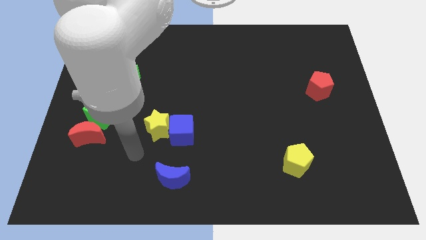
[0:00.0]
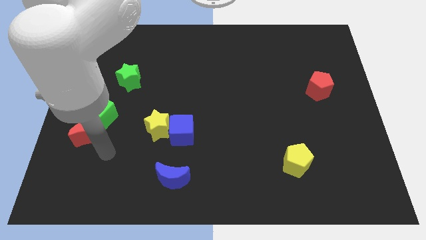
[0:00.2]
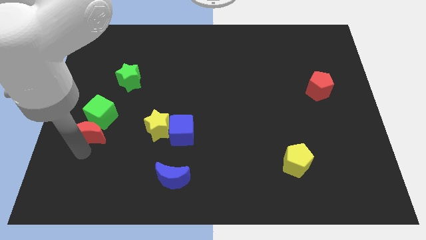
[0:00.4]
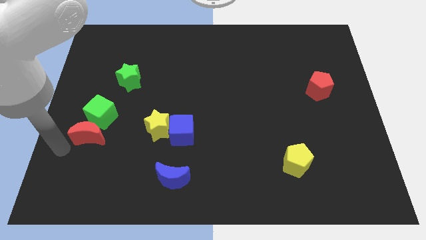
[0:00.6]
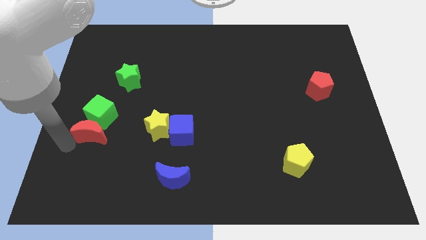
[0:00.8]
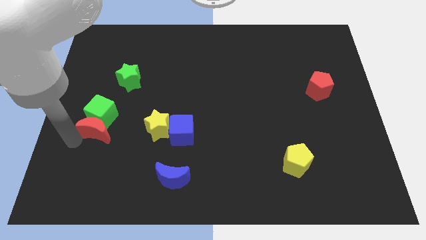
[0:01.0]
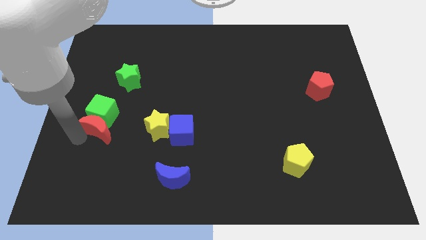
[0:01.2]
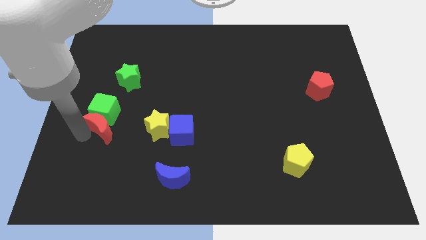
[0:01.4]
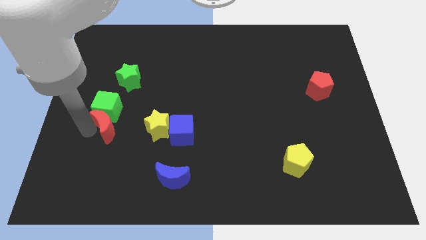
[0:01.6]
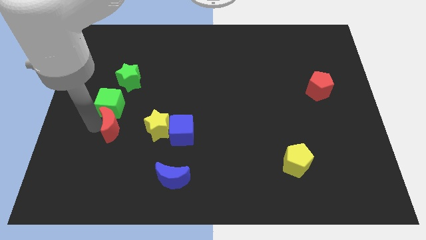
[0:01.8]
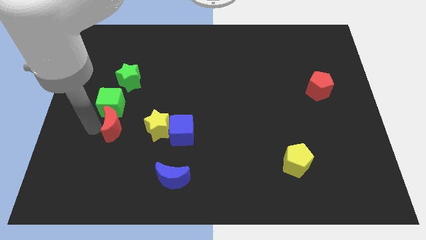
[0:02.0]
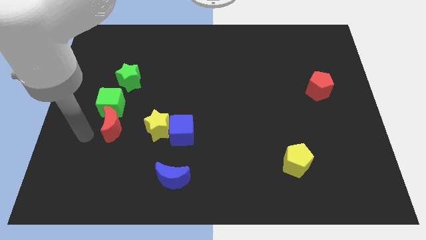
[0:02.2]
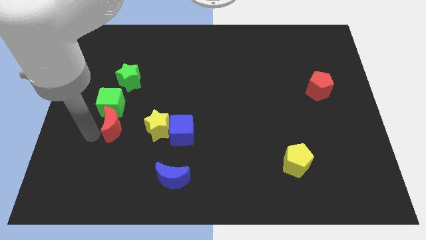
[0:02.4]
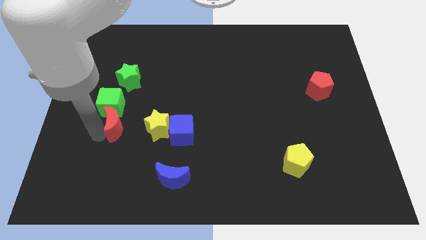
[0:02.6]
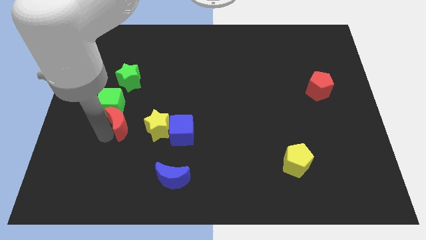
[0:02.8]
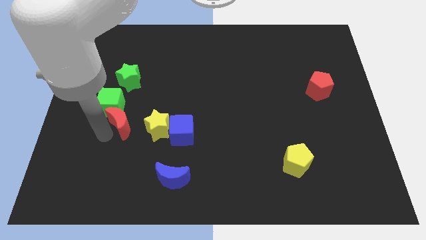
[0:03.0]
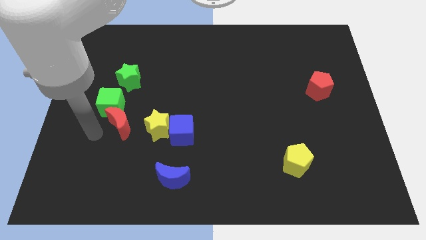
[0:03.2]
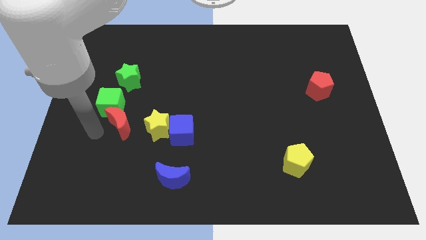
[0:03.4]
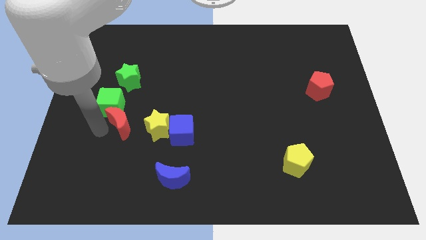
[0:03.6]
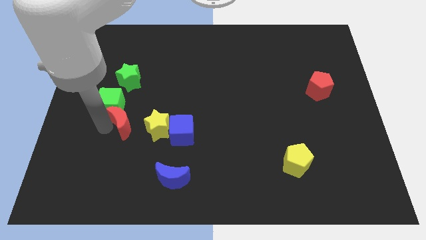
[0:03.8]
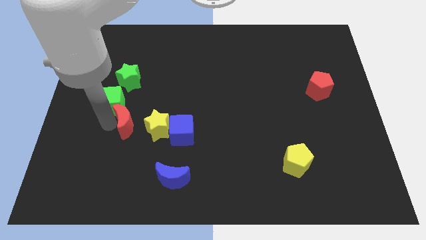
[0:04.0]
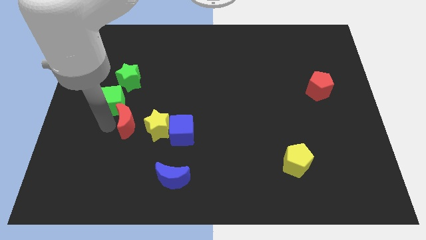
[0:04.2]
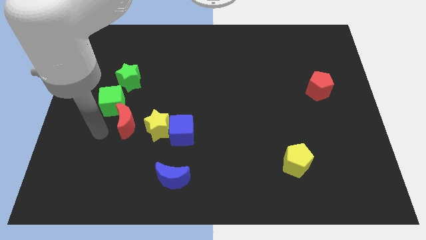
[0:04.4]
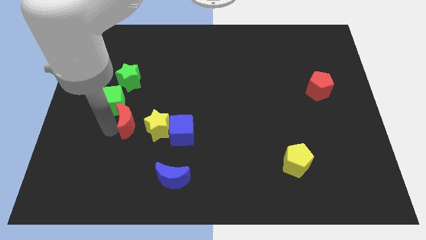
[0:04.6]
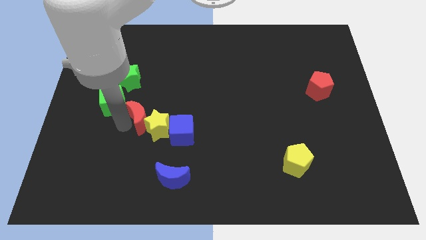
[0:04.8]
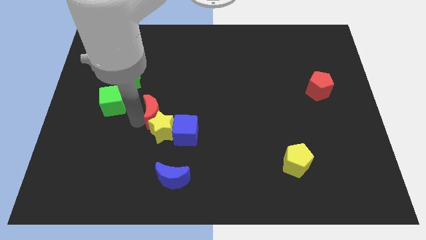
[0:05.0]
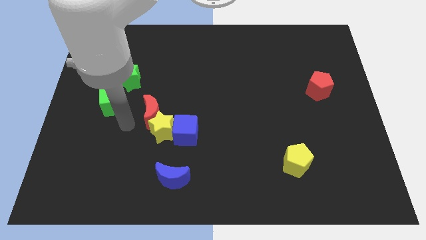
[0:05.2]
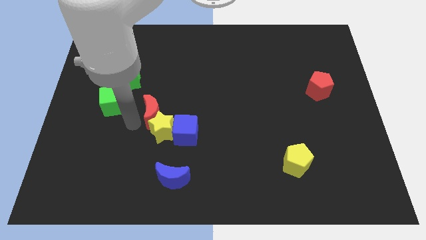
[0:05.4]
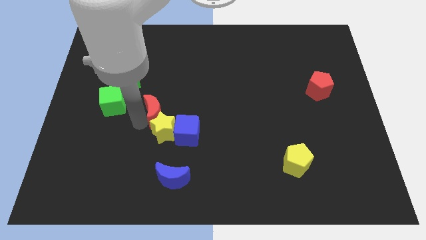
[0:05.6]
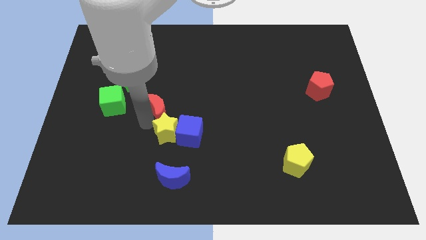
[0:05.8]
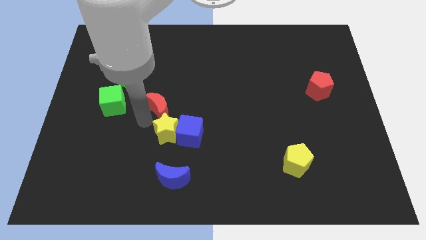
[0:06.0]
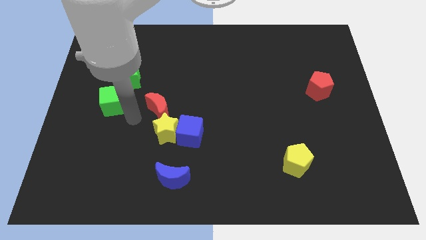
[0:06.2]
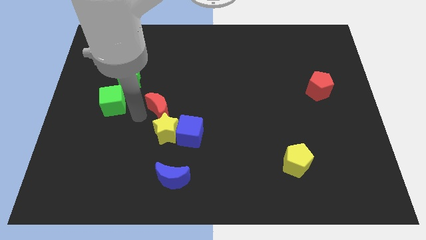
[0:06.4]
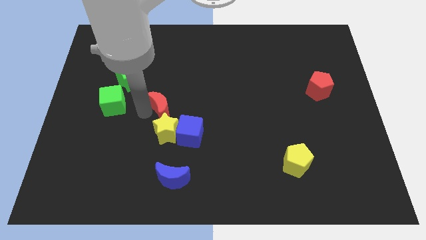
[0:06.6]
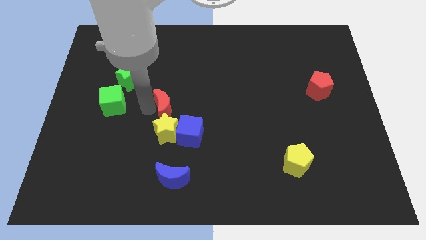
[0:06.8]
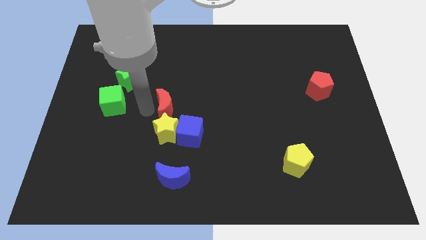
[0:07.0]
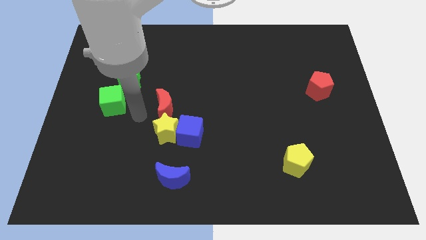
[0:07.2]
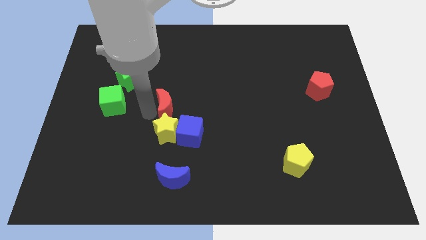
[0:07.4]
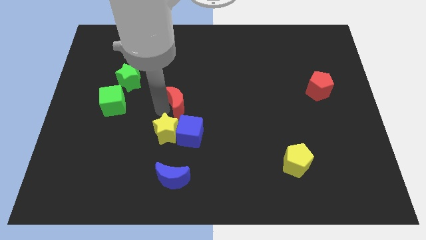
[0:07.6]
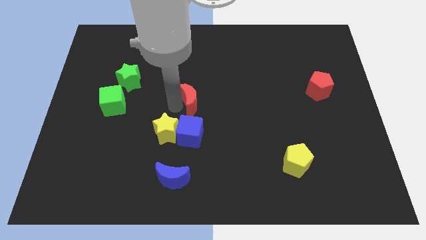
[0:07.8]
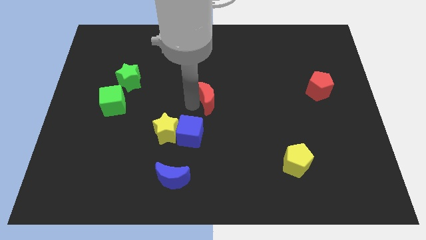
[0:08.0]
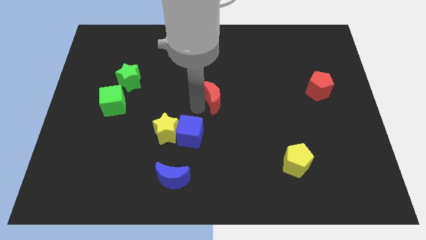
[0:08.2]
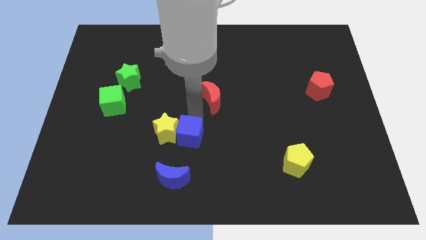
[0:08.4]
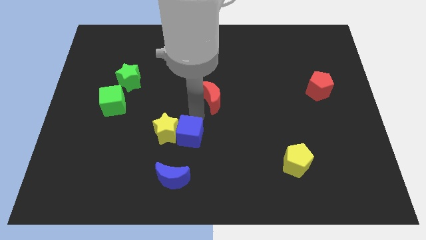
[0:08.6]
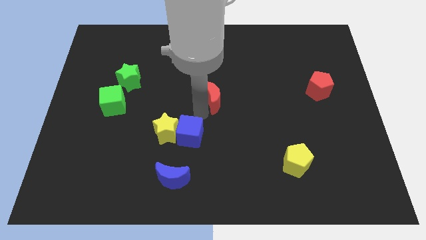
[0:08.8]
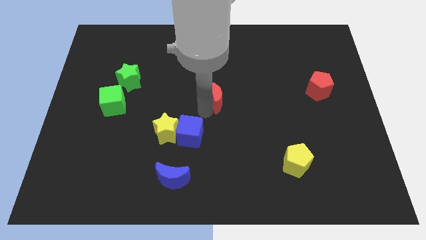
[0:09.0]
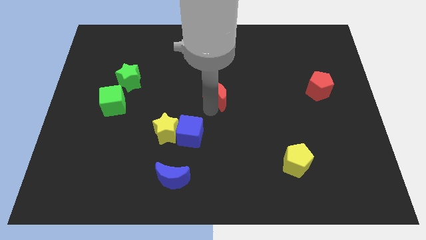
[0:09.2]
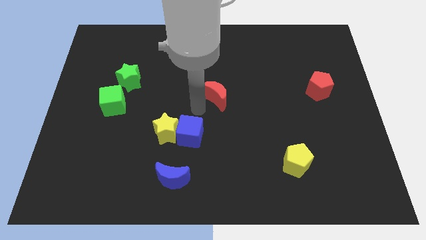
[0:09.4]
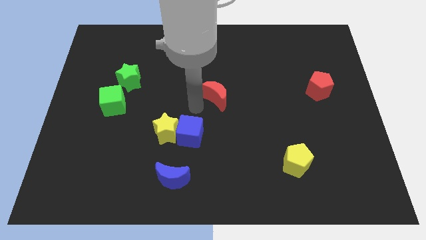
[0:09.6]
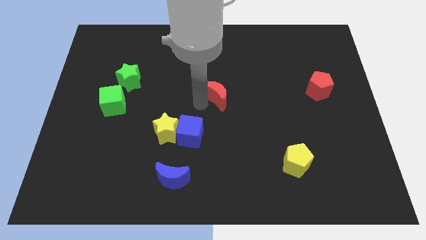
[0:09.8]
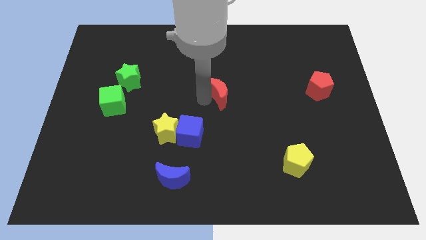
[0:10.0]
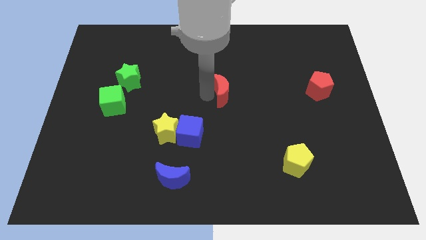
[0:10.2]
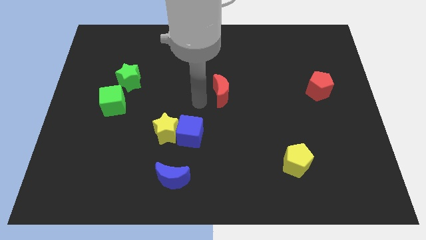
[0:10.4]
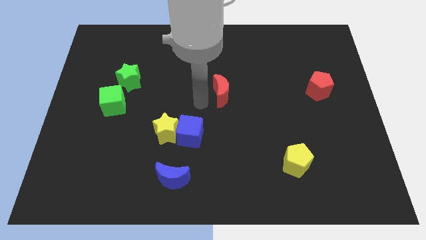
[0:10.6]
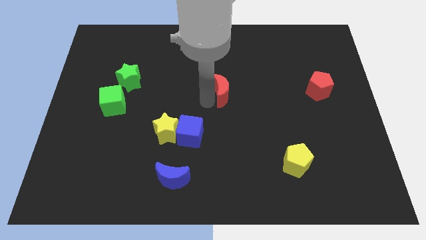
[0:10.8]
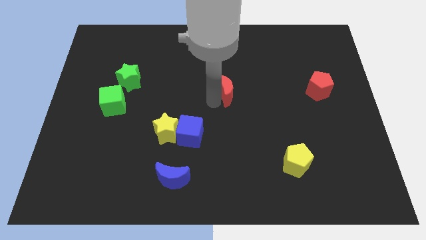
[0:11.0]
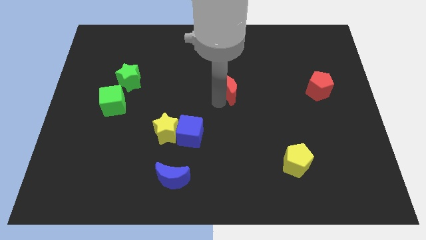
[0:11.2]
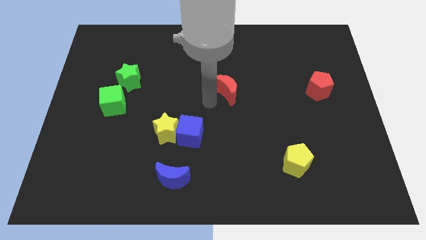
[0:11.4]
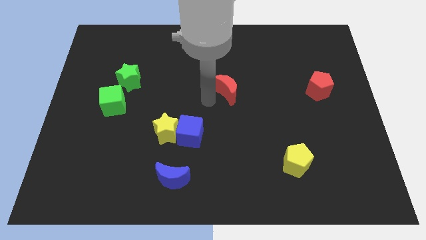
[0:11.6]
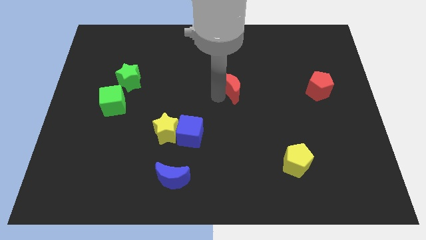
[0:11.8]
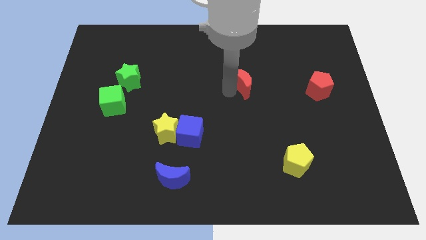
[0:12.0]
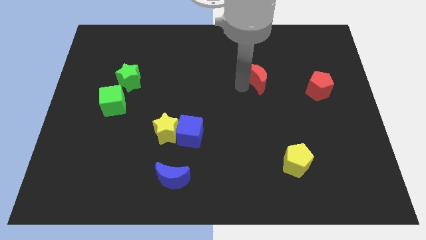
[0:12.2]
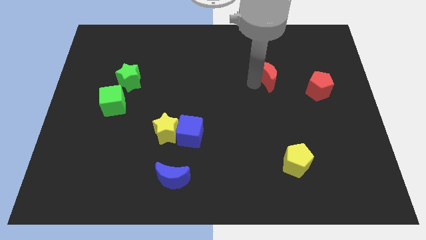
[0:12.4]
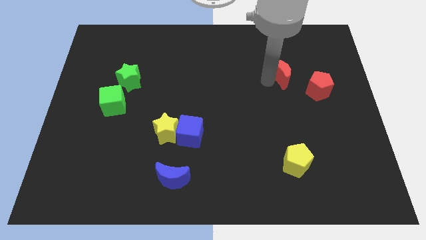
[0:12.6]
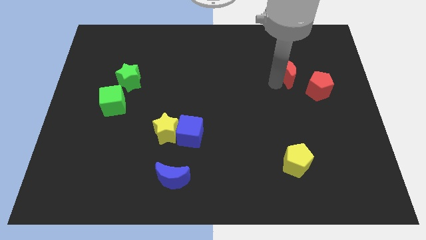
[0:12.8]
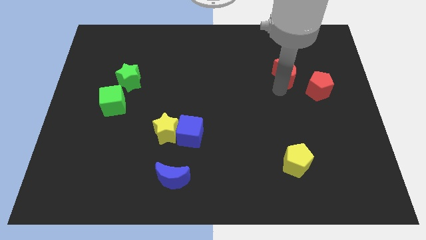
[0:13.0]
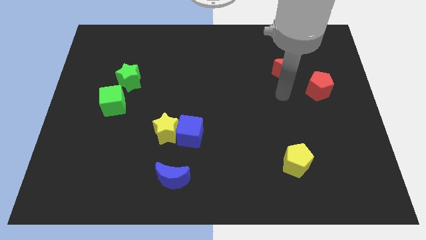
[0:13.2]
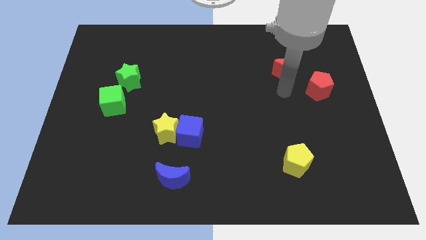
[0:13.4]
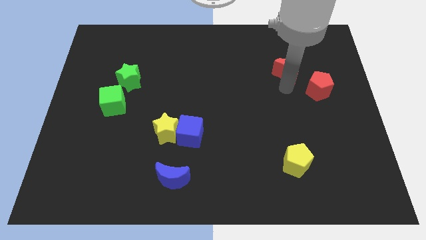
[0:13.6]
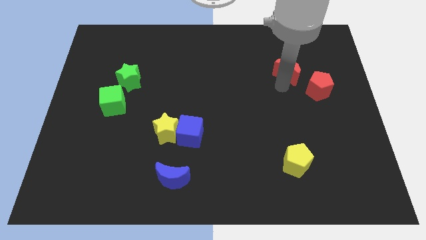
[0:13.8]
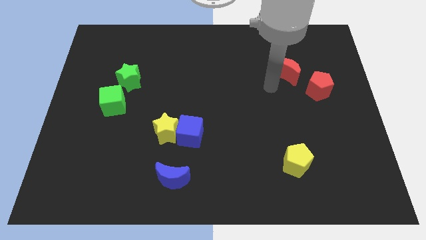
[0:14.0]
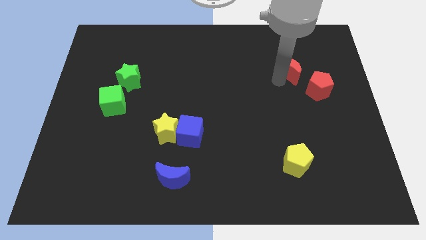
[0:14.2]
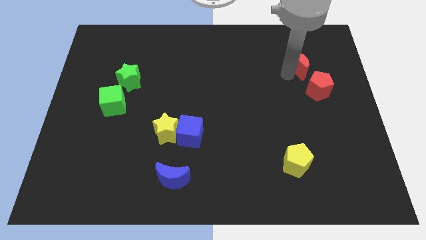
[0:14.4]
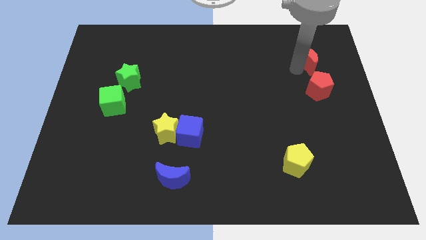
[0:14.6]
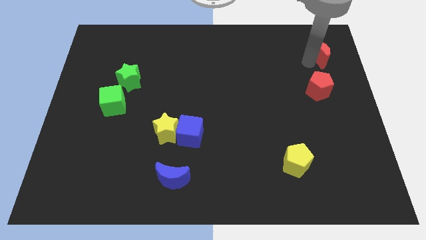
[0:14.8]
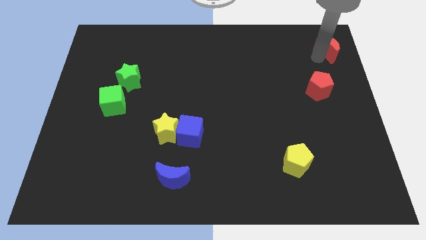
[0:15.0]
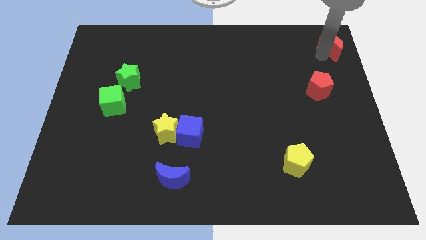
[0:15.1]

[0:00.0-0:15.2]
push the red moon to the top right

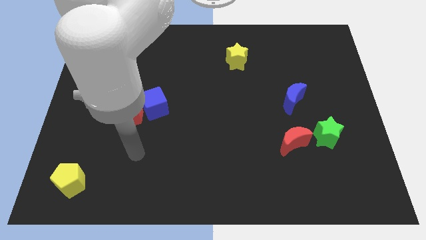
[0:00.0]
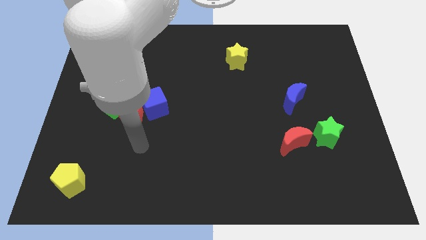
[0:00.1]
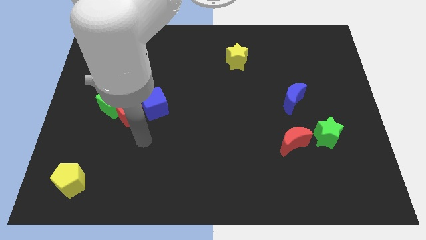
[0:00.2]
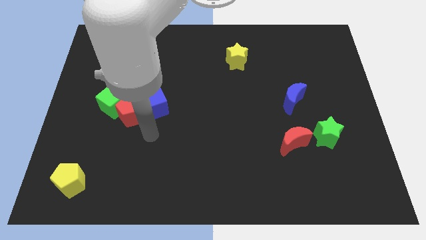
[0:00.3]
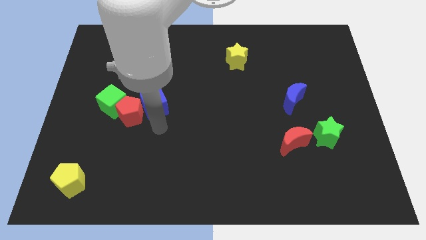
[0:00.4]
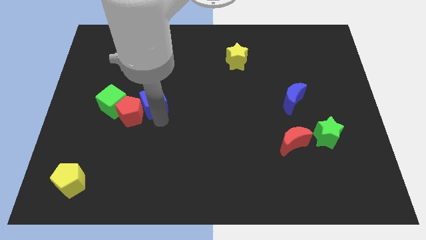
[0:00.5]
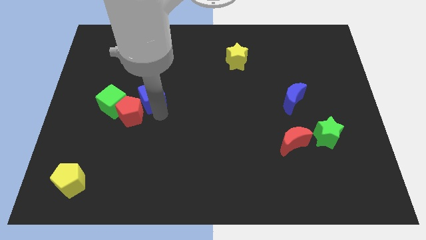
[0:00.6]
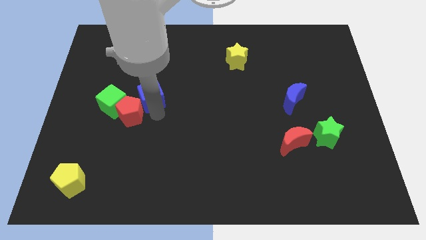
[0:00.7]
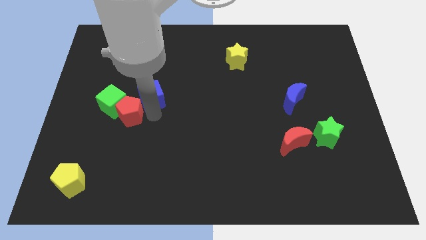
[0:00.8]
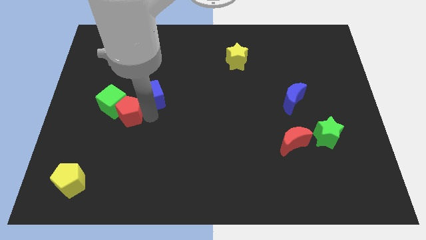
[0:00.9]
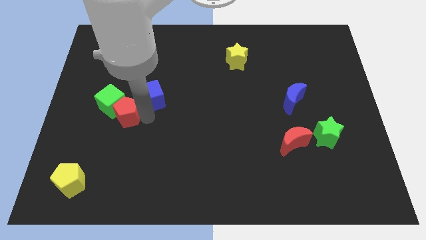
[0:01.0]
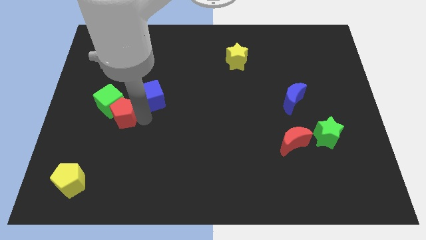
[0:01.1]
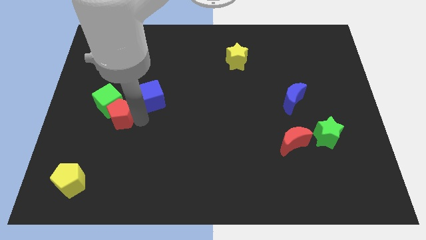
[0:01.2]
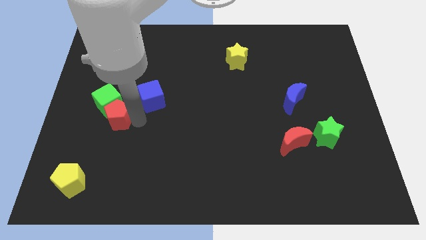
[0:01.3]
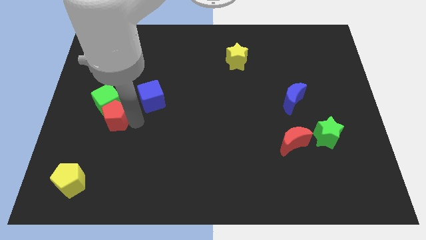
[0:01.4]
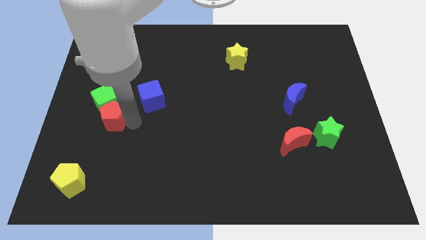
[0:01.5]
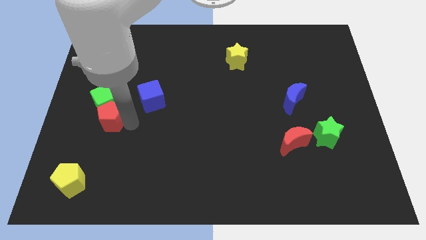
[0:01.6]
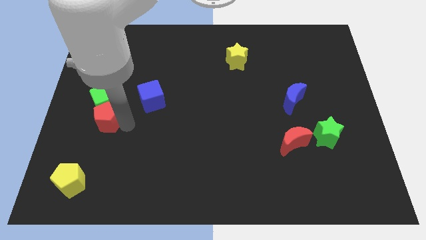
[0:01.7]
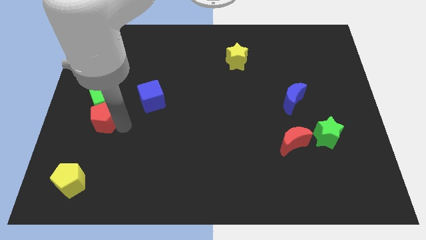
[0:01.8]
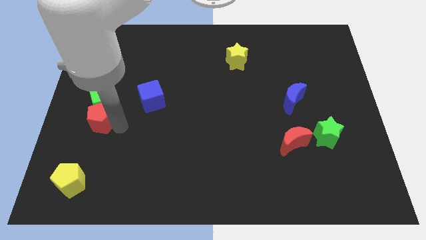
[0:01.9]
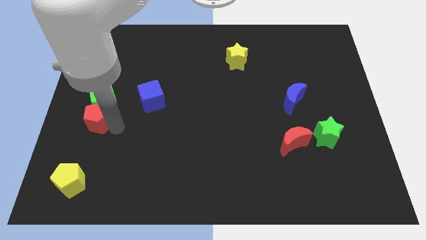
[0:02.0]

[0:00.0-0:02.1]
slide the red pentagon to the left side
